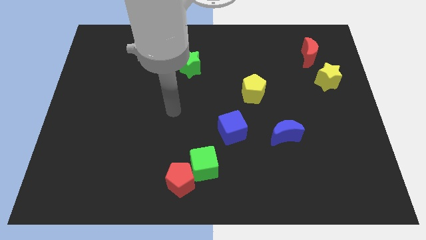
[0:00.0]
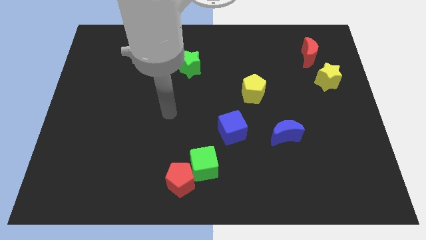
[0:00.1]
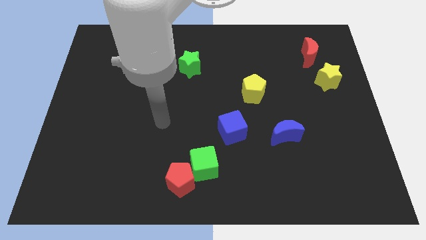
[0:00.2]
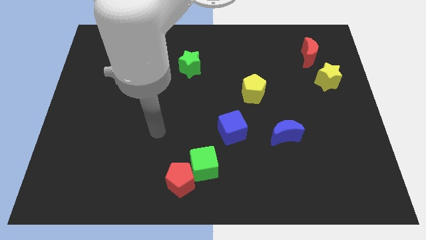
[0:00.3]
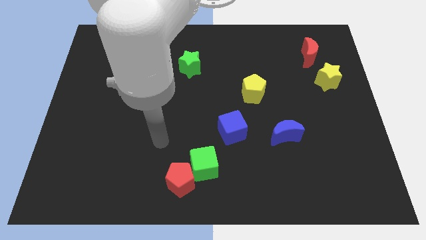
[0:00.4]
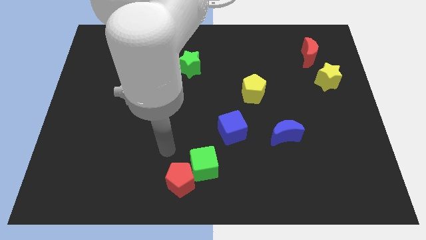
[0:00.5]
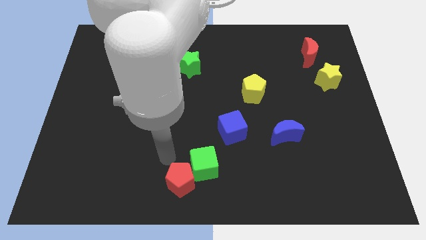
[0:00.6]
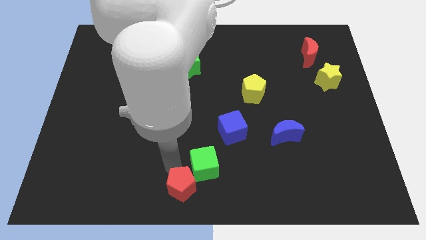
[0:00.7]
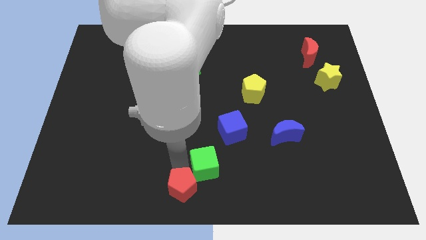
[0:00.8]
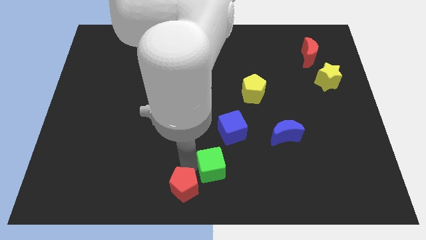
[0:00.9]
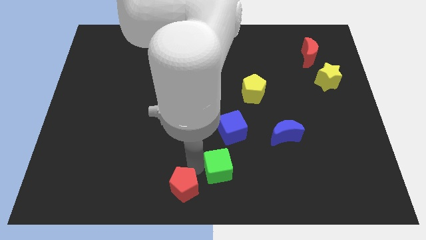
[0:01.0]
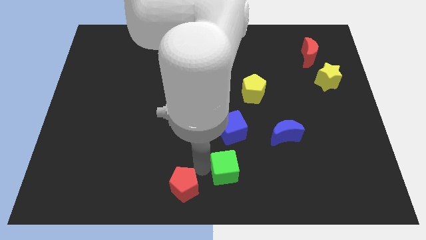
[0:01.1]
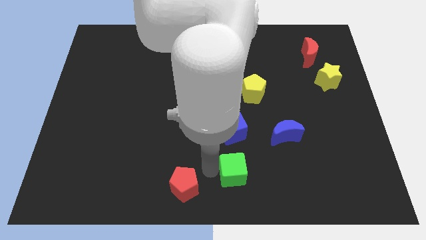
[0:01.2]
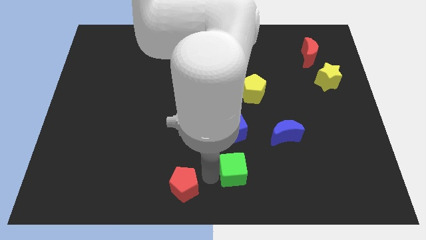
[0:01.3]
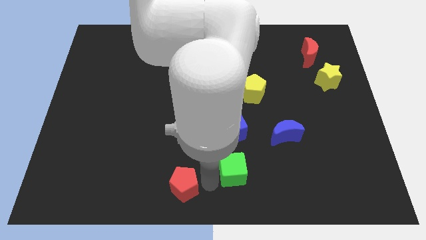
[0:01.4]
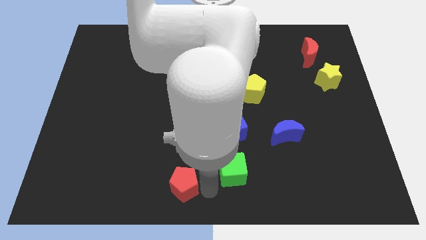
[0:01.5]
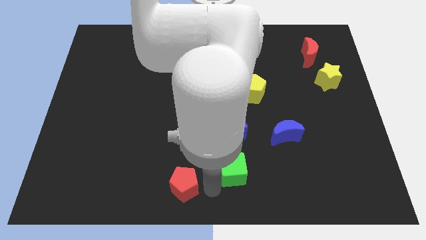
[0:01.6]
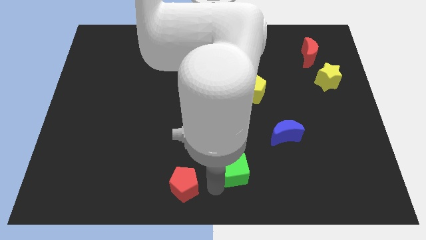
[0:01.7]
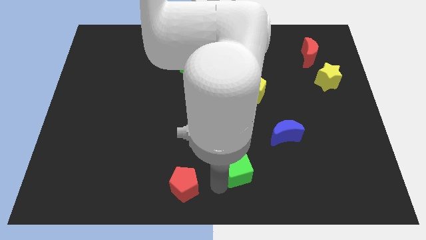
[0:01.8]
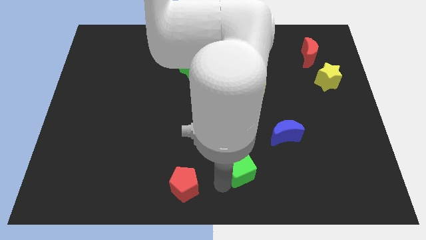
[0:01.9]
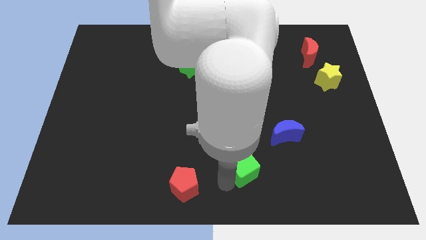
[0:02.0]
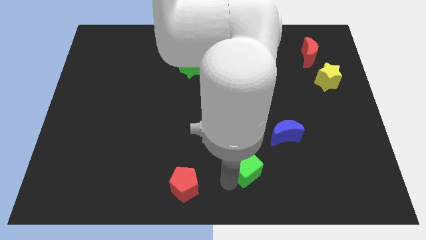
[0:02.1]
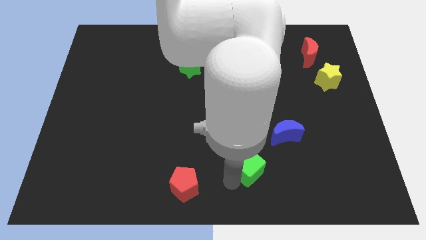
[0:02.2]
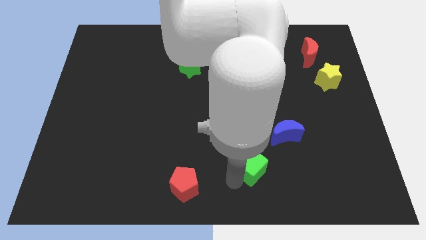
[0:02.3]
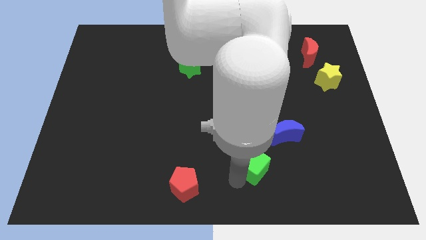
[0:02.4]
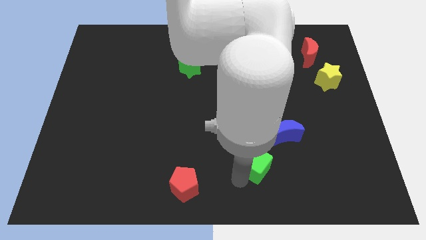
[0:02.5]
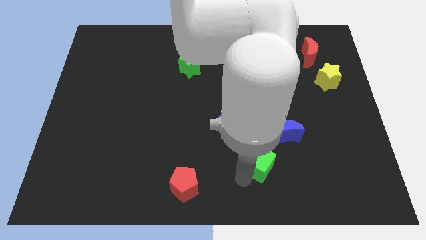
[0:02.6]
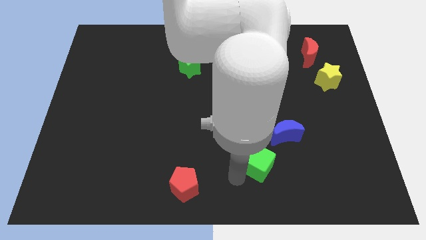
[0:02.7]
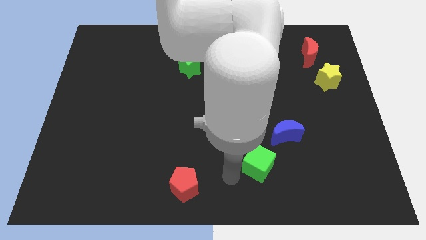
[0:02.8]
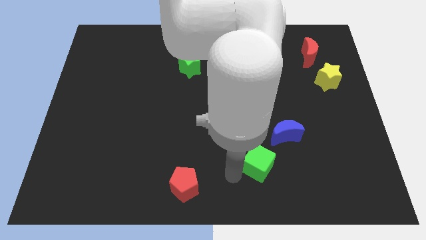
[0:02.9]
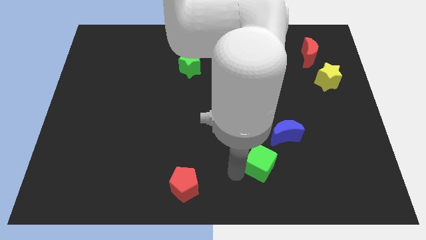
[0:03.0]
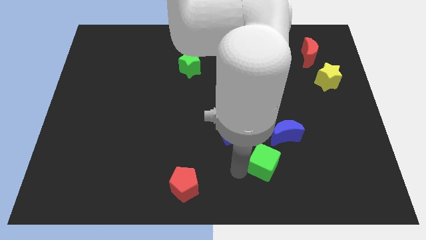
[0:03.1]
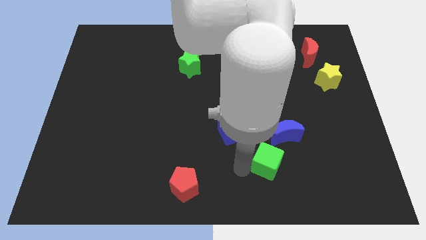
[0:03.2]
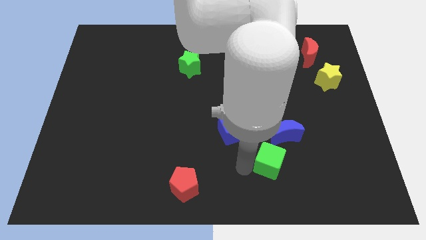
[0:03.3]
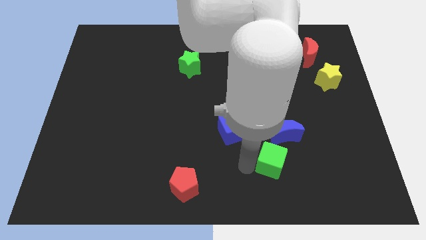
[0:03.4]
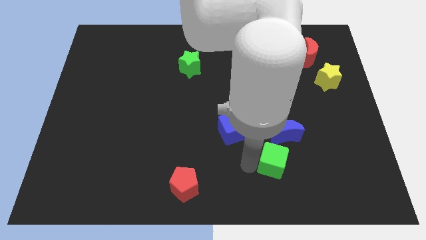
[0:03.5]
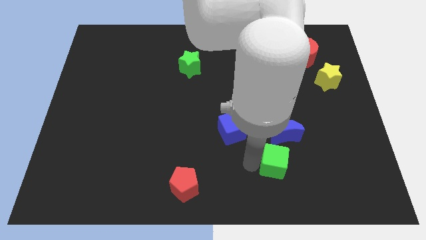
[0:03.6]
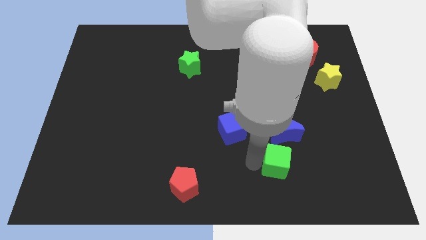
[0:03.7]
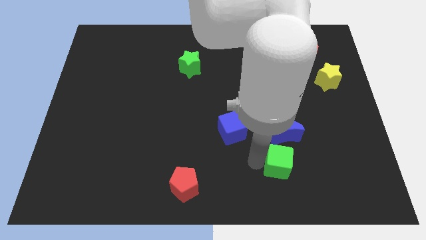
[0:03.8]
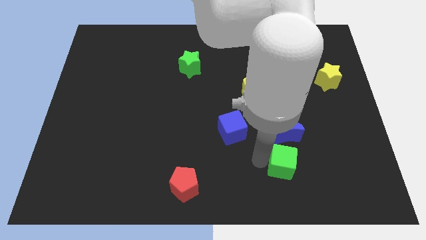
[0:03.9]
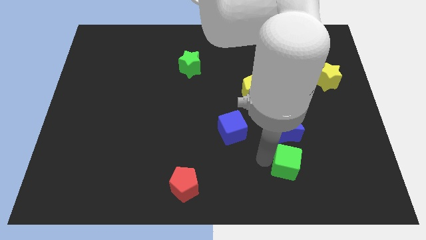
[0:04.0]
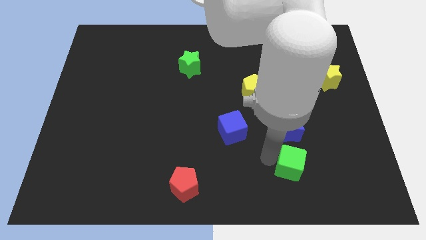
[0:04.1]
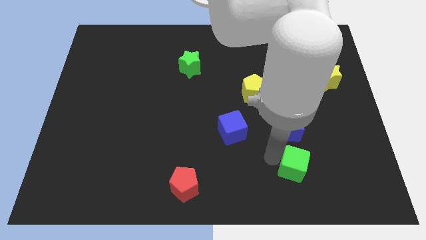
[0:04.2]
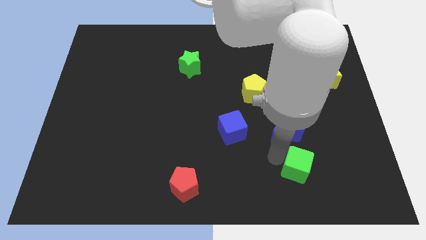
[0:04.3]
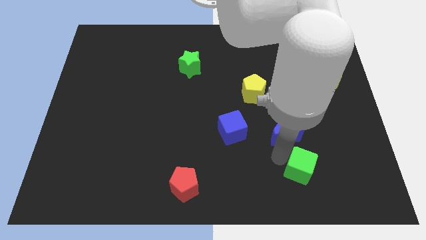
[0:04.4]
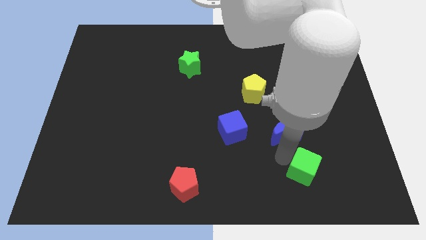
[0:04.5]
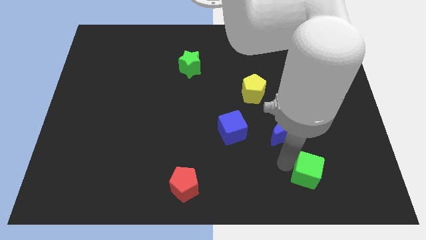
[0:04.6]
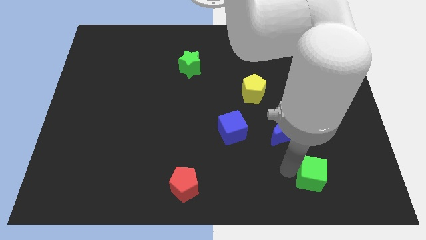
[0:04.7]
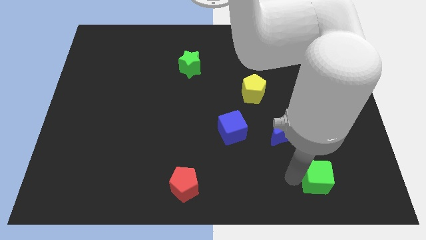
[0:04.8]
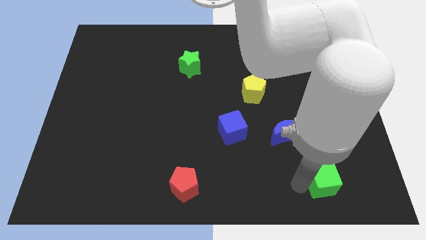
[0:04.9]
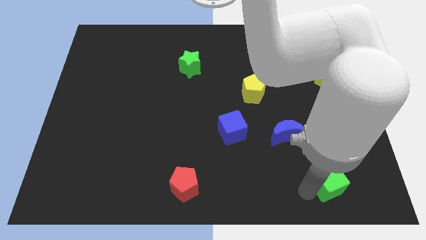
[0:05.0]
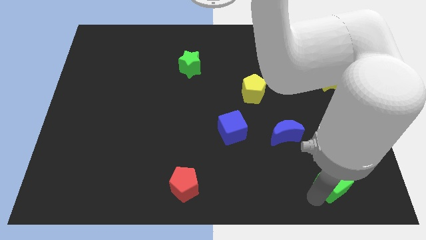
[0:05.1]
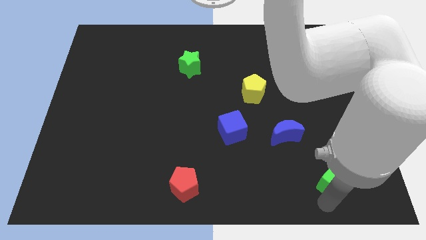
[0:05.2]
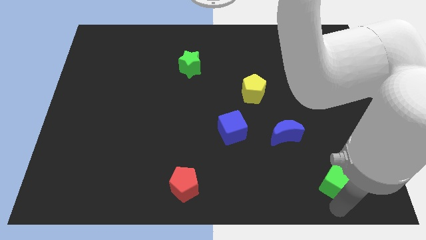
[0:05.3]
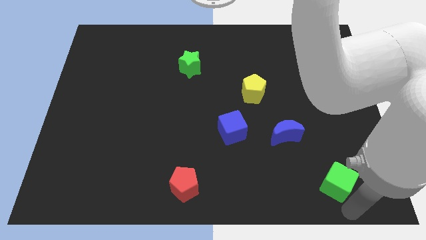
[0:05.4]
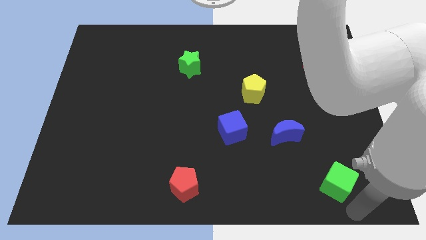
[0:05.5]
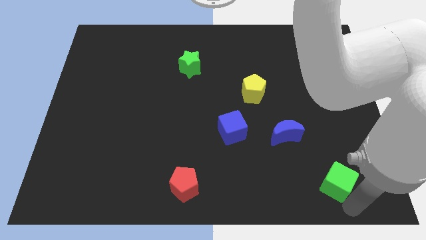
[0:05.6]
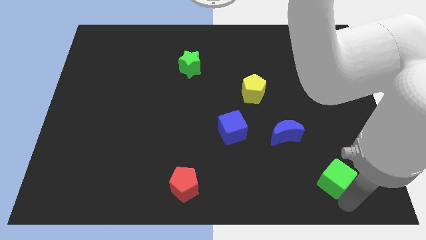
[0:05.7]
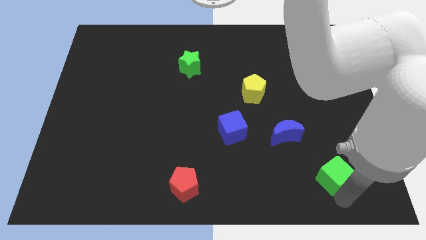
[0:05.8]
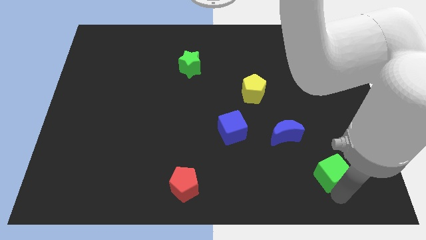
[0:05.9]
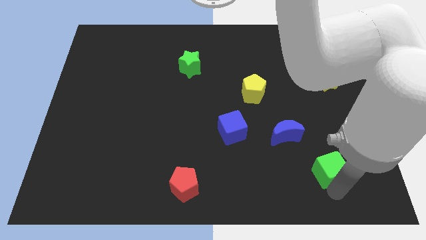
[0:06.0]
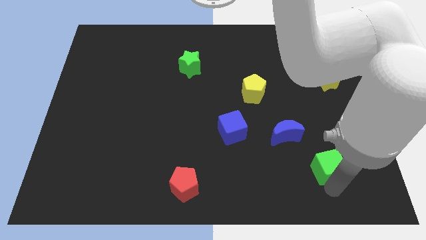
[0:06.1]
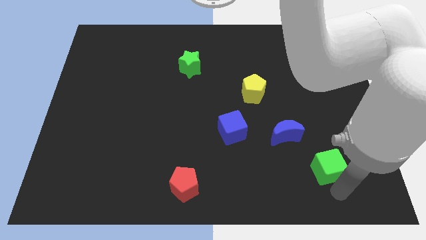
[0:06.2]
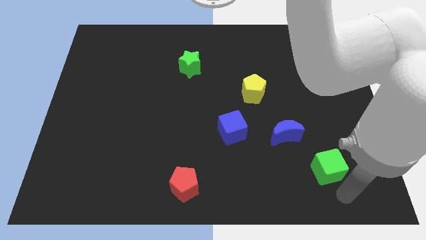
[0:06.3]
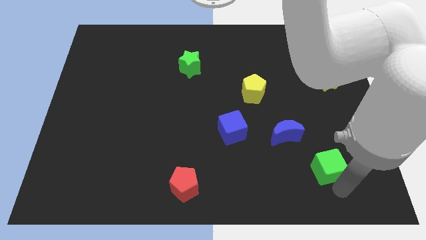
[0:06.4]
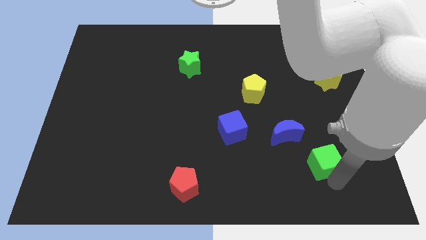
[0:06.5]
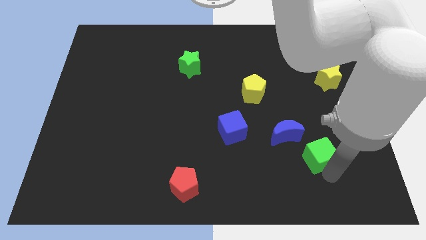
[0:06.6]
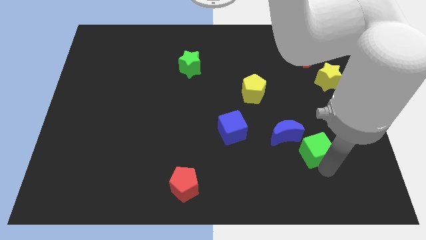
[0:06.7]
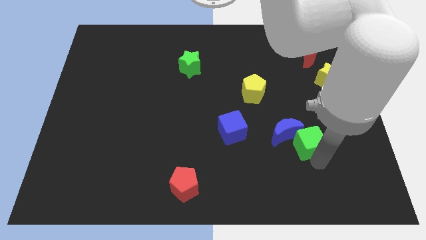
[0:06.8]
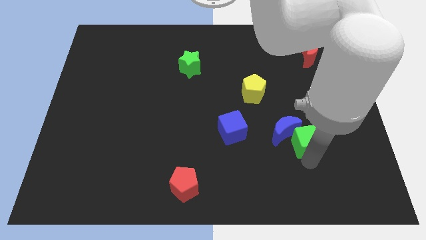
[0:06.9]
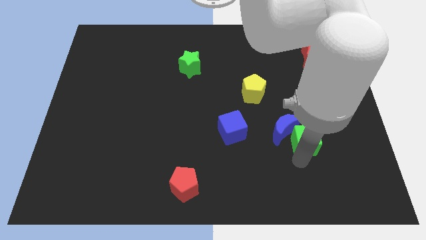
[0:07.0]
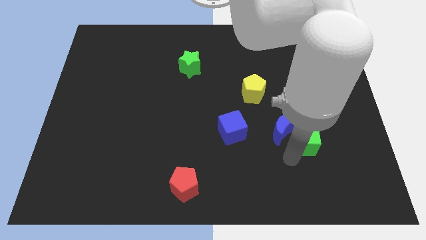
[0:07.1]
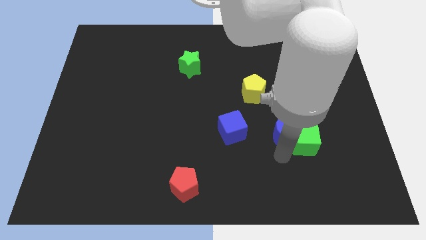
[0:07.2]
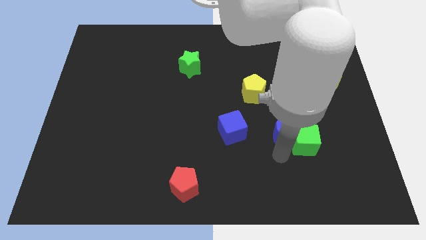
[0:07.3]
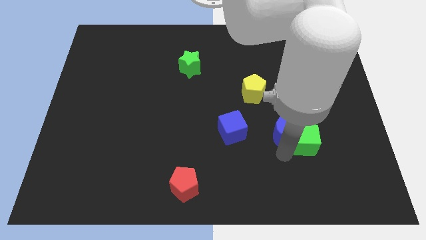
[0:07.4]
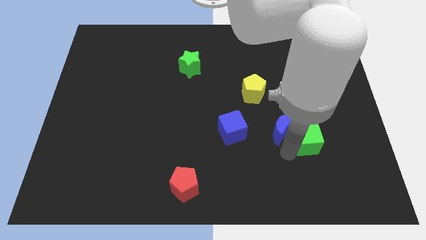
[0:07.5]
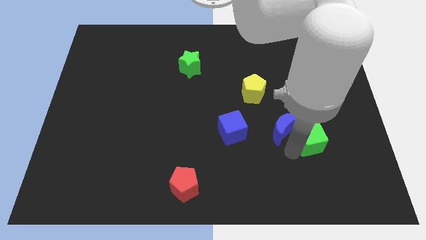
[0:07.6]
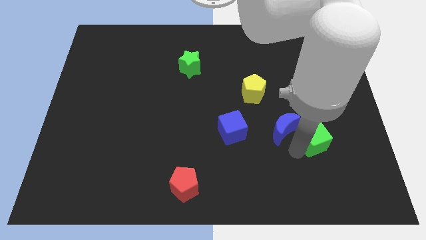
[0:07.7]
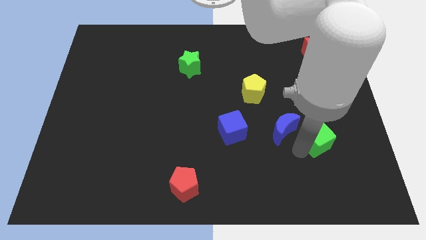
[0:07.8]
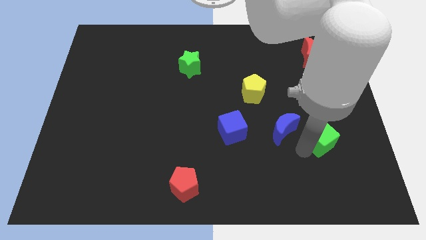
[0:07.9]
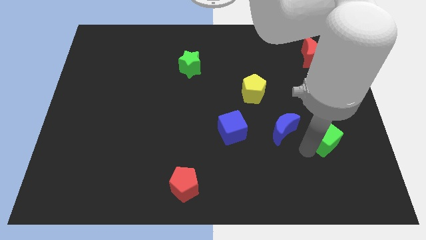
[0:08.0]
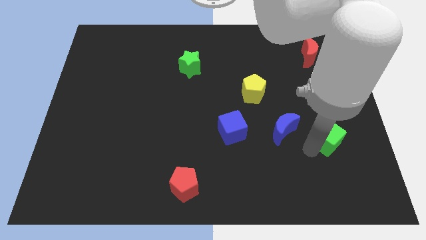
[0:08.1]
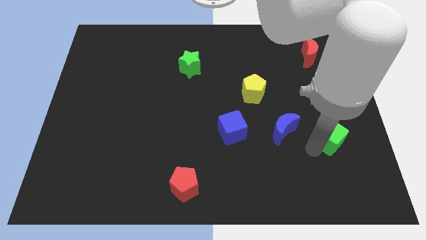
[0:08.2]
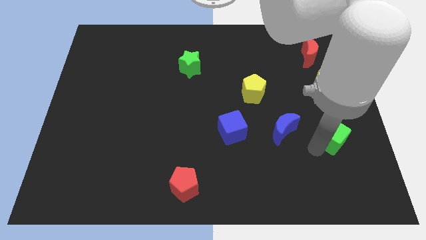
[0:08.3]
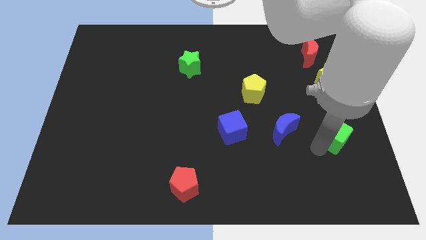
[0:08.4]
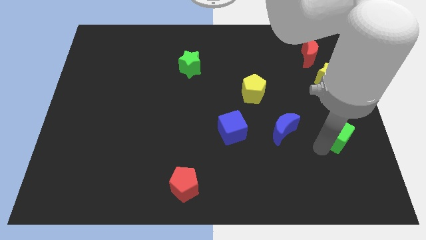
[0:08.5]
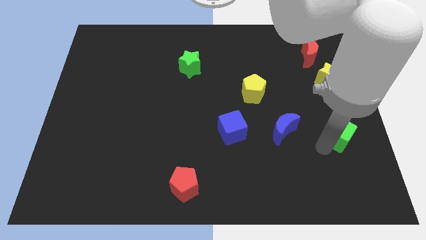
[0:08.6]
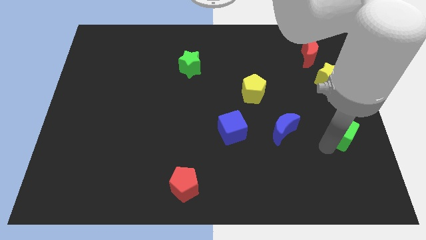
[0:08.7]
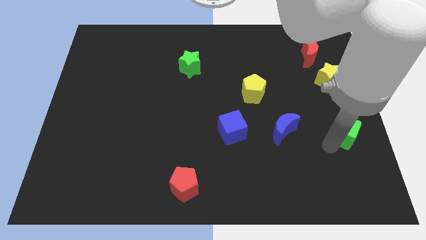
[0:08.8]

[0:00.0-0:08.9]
slide the green cube to the right side
